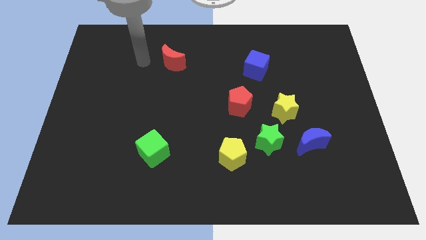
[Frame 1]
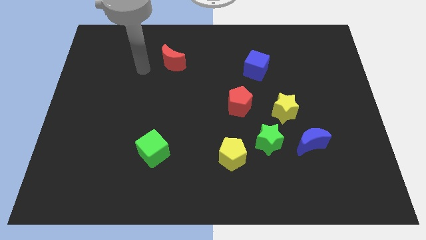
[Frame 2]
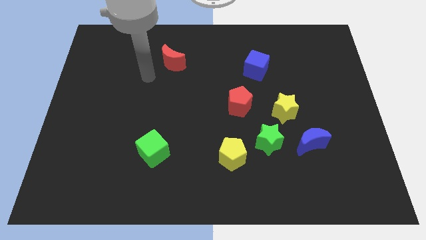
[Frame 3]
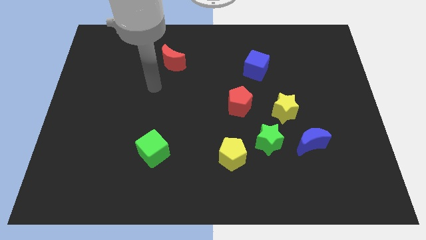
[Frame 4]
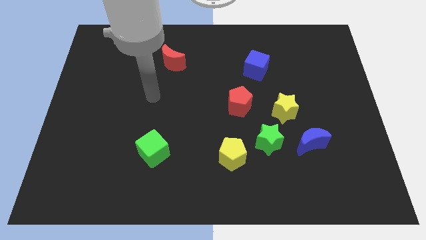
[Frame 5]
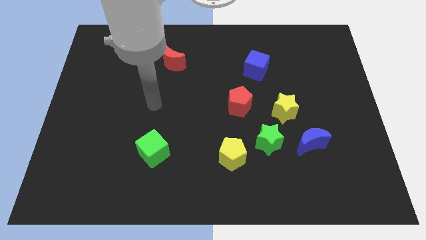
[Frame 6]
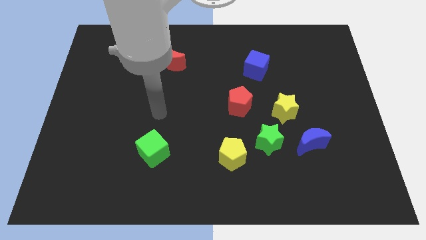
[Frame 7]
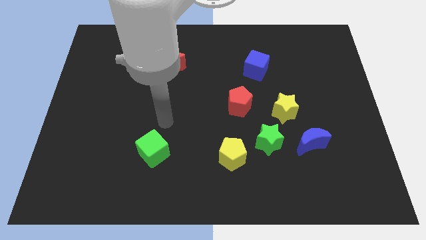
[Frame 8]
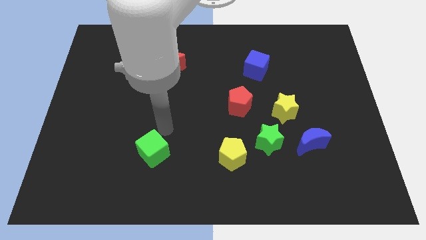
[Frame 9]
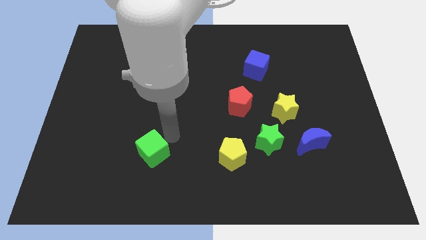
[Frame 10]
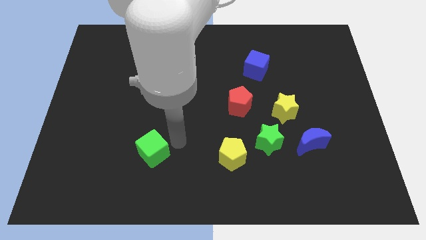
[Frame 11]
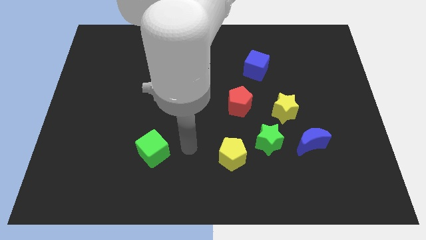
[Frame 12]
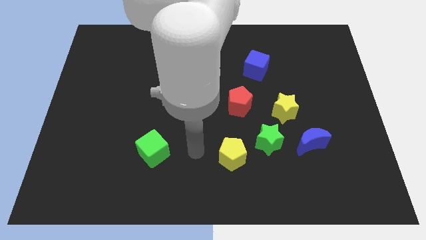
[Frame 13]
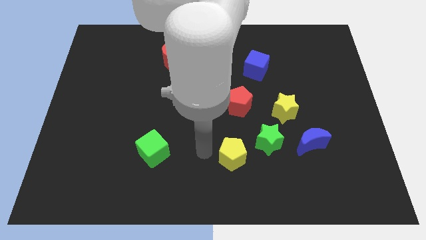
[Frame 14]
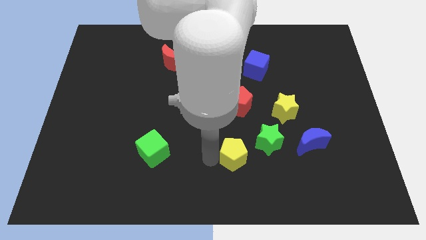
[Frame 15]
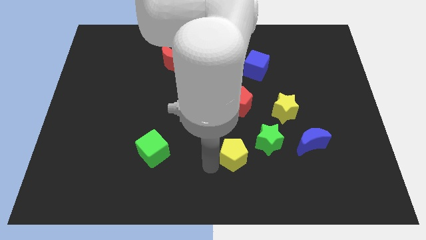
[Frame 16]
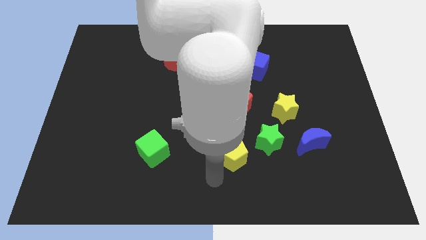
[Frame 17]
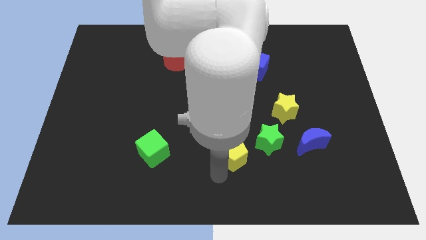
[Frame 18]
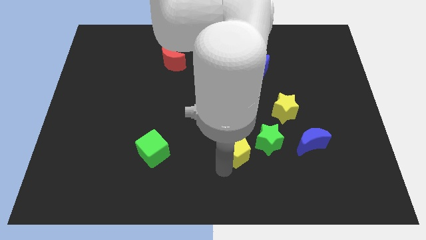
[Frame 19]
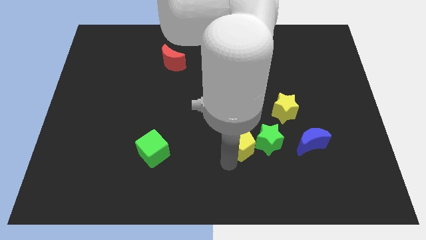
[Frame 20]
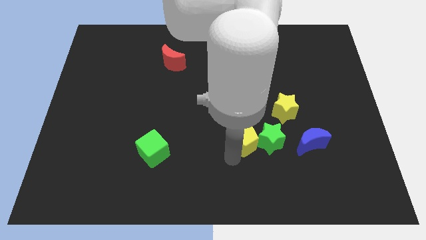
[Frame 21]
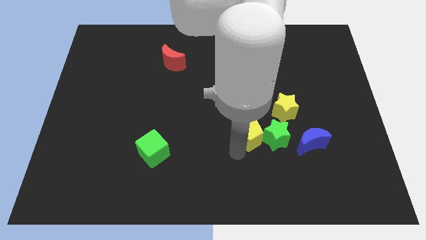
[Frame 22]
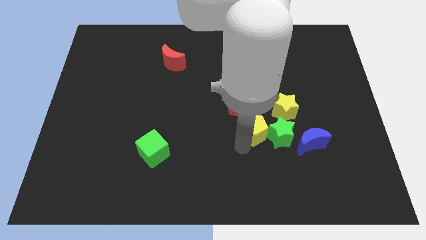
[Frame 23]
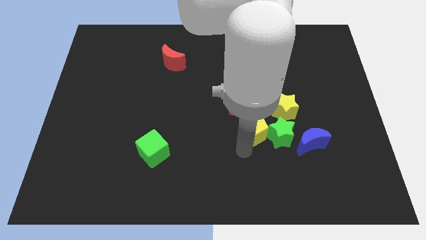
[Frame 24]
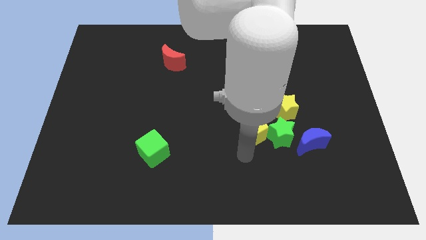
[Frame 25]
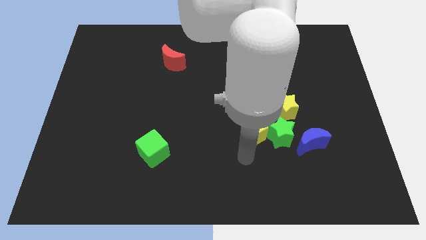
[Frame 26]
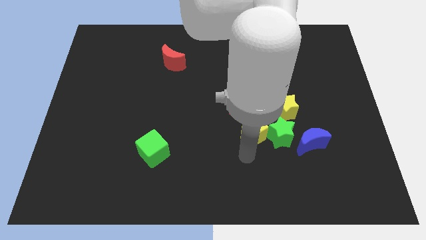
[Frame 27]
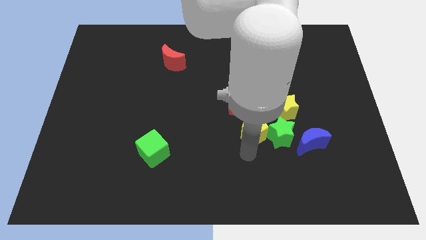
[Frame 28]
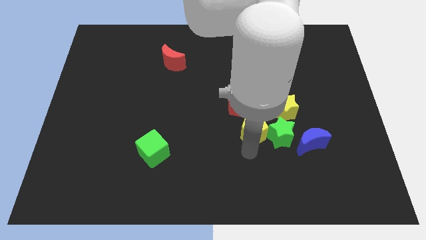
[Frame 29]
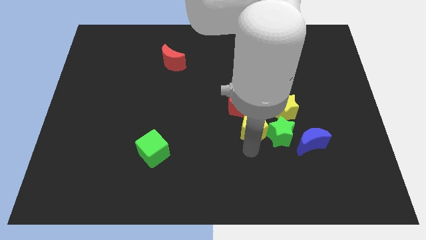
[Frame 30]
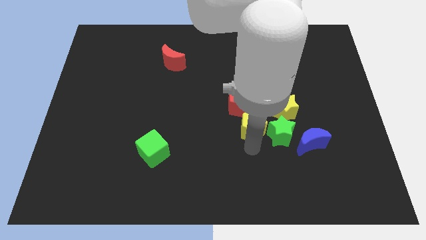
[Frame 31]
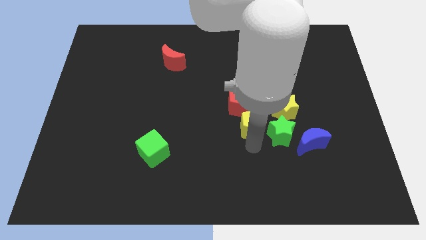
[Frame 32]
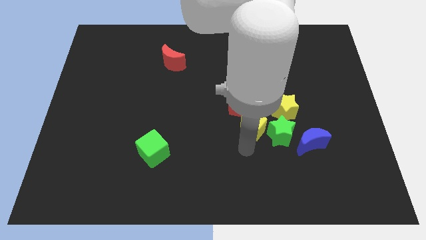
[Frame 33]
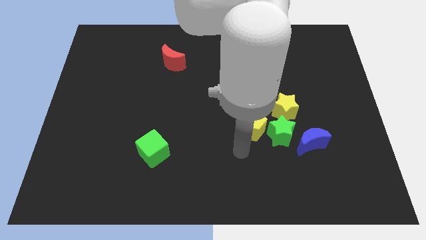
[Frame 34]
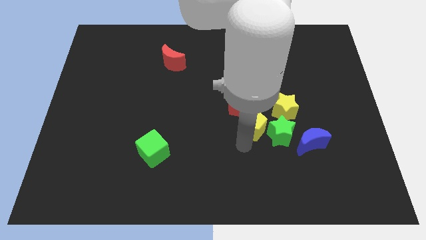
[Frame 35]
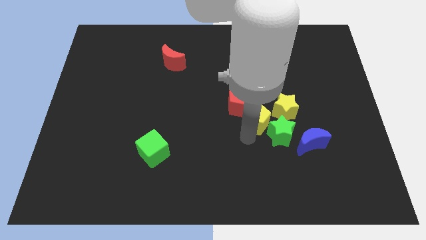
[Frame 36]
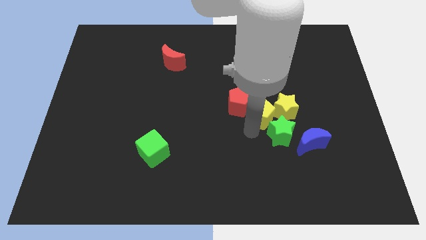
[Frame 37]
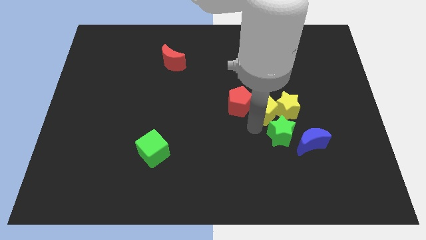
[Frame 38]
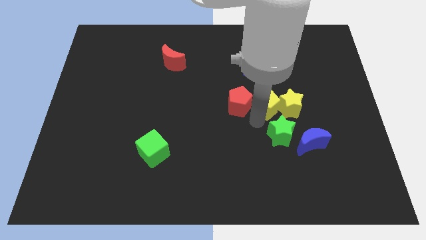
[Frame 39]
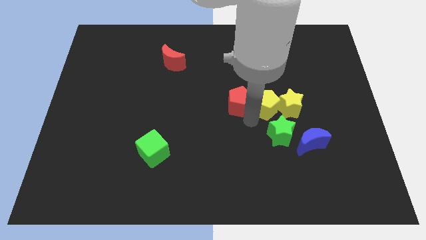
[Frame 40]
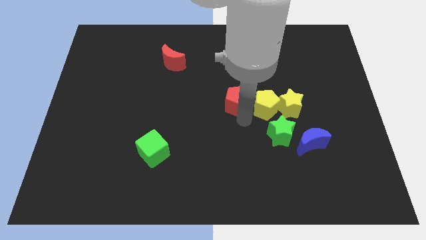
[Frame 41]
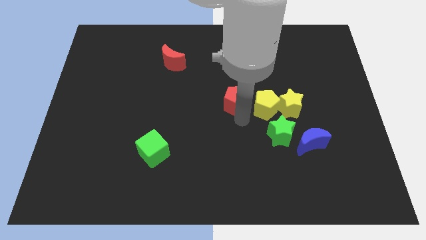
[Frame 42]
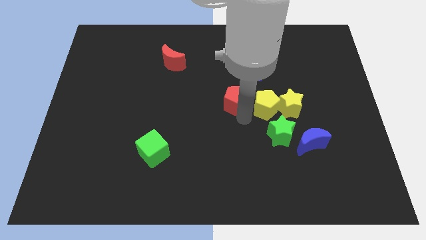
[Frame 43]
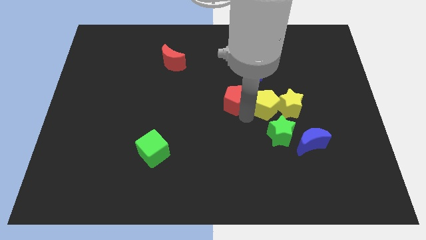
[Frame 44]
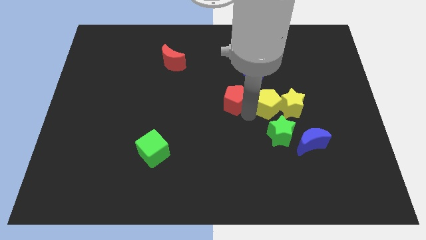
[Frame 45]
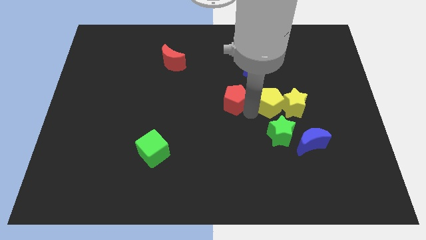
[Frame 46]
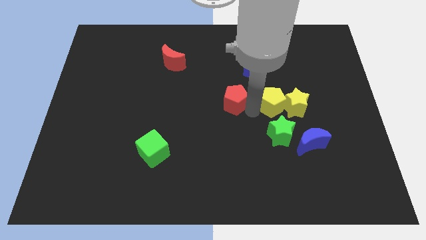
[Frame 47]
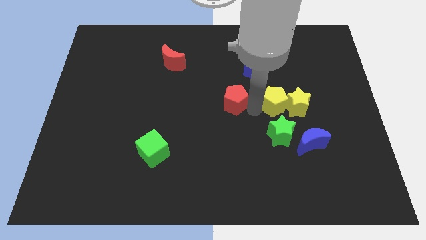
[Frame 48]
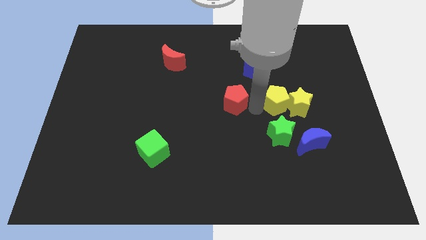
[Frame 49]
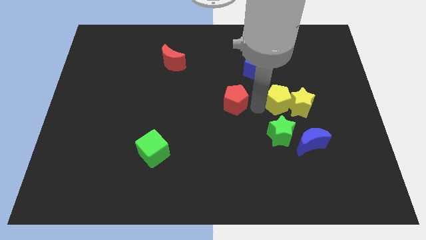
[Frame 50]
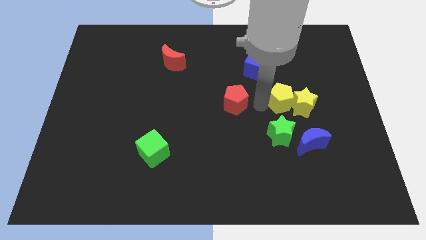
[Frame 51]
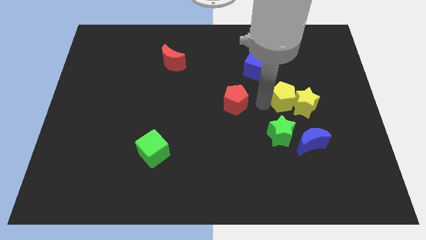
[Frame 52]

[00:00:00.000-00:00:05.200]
push the yellow pentagon up and then to the right

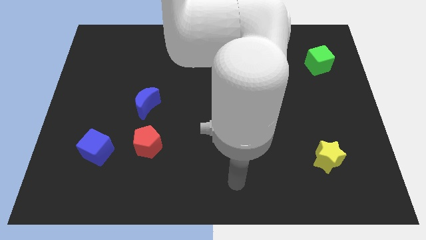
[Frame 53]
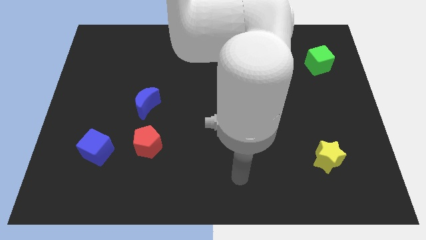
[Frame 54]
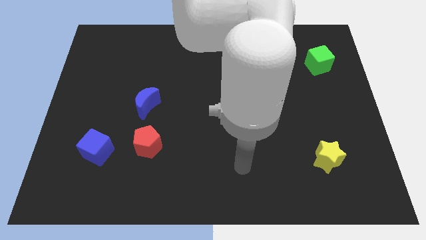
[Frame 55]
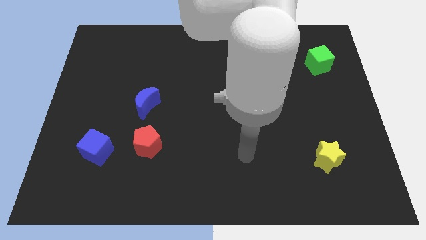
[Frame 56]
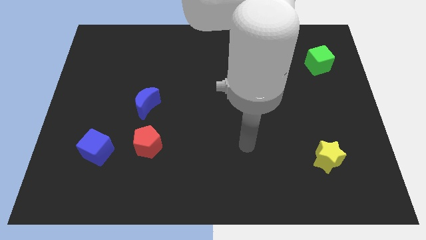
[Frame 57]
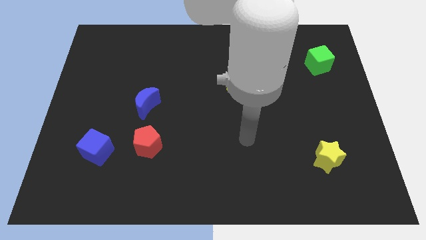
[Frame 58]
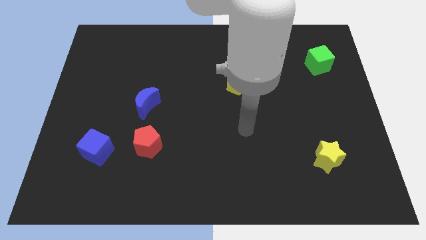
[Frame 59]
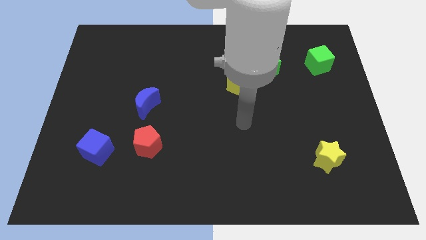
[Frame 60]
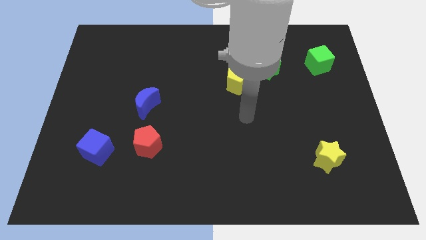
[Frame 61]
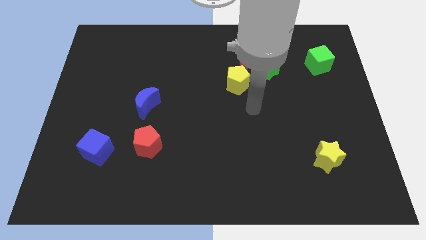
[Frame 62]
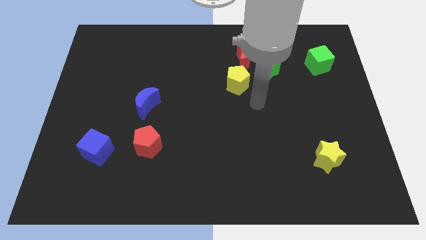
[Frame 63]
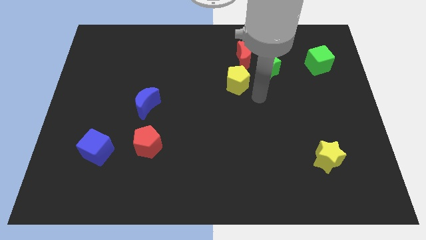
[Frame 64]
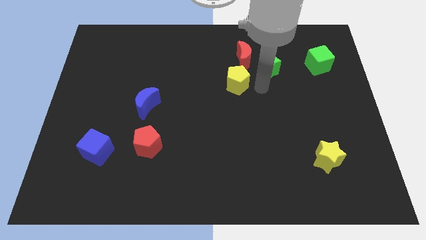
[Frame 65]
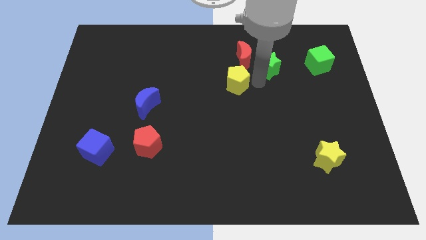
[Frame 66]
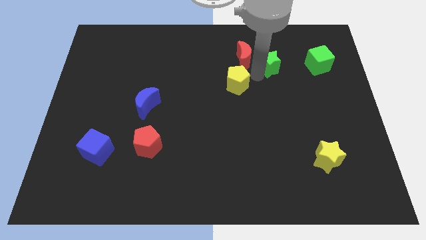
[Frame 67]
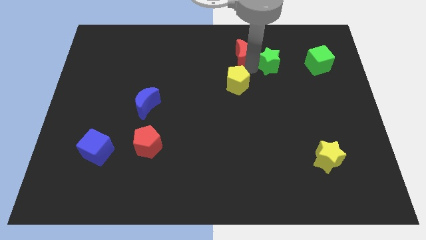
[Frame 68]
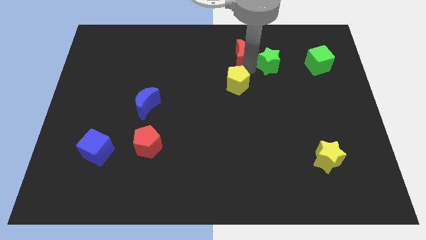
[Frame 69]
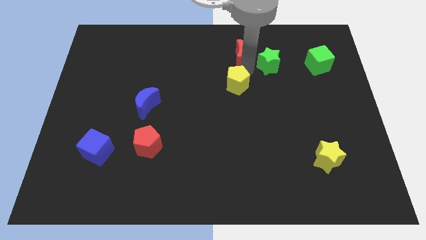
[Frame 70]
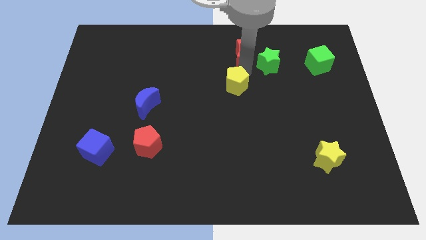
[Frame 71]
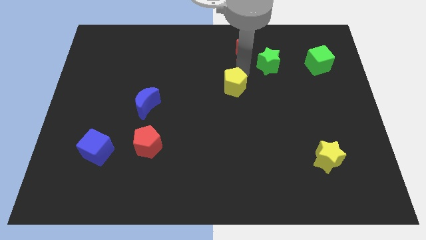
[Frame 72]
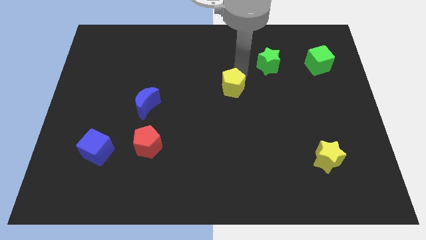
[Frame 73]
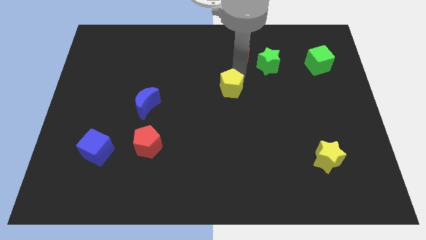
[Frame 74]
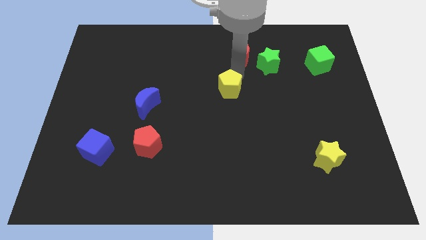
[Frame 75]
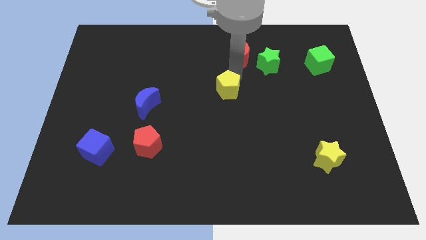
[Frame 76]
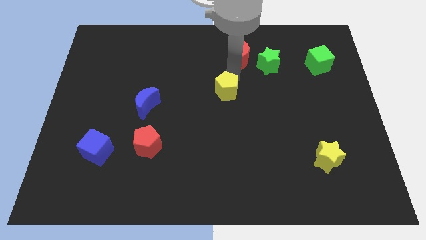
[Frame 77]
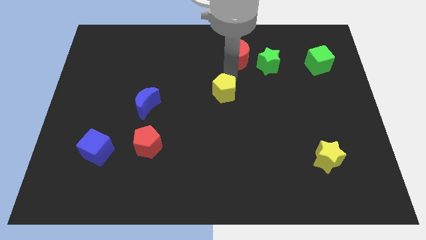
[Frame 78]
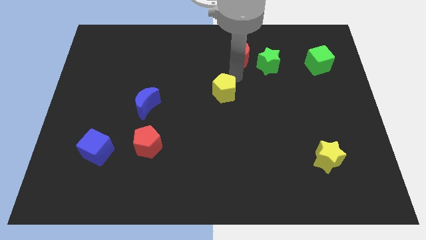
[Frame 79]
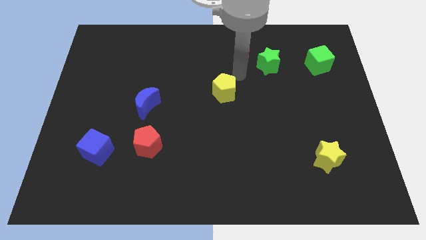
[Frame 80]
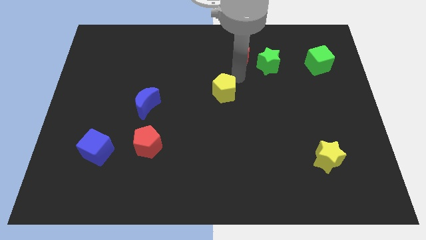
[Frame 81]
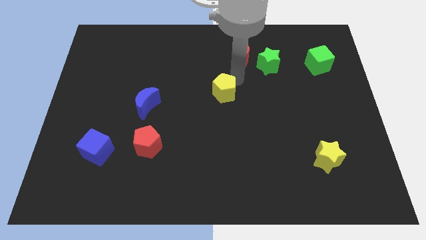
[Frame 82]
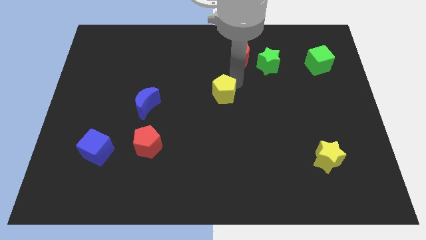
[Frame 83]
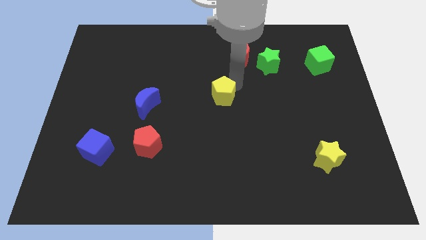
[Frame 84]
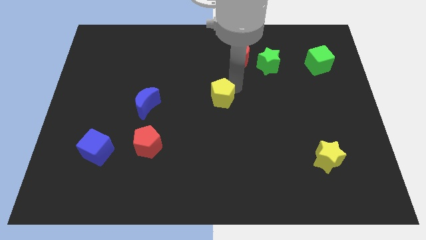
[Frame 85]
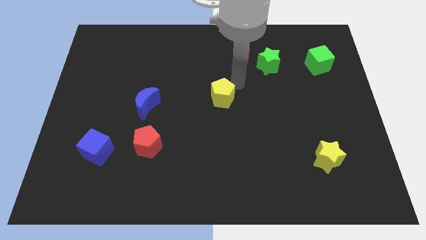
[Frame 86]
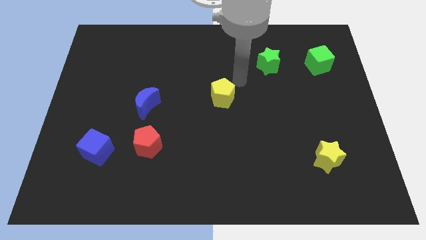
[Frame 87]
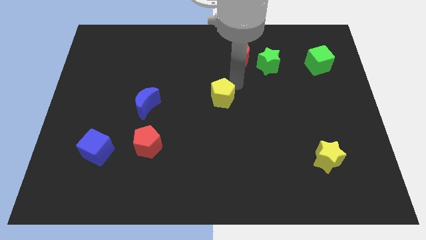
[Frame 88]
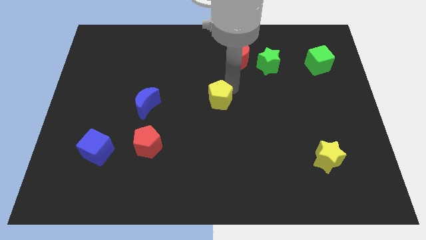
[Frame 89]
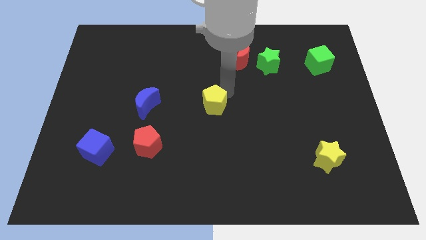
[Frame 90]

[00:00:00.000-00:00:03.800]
move the yellow pentagon diagonally down and to the left a little bit
